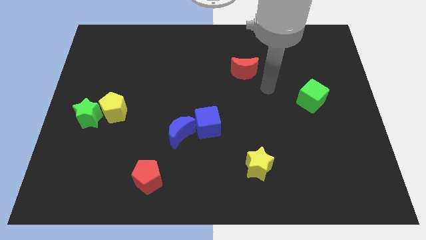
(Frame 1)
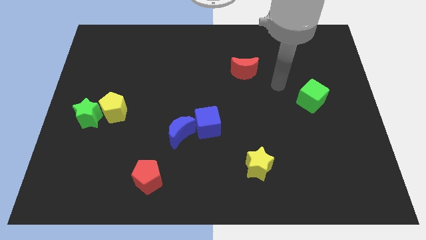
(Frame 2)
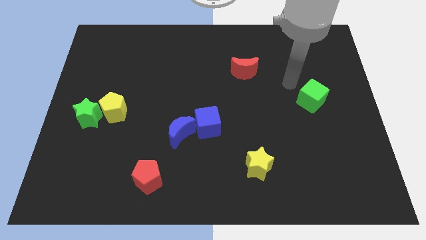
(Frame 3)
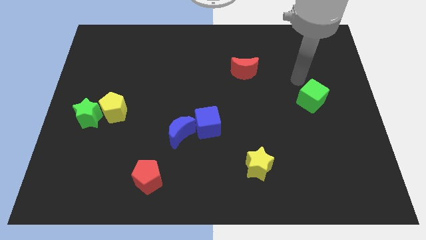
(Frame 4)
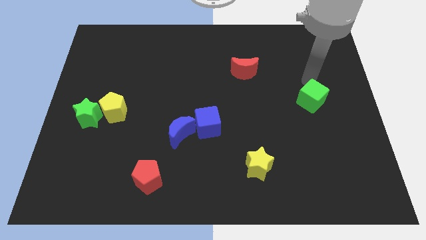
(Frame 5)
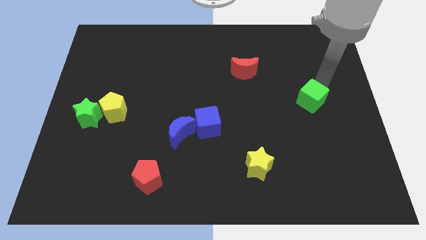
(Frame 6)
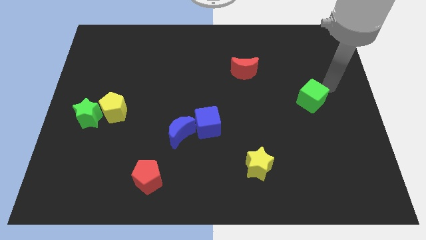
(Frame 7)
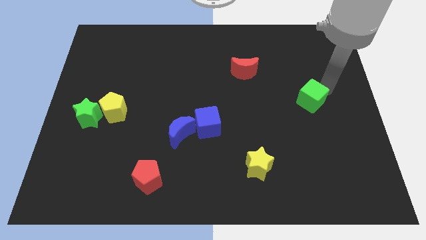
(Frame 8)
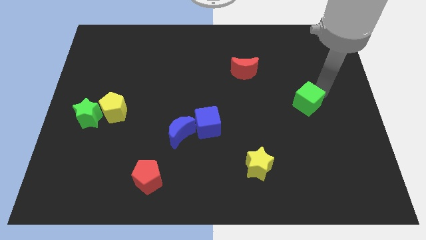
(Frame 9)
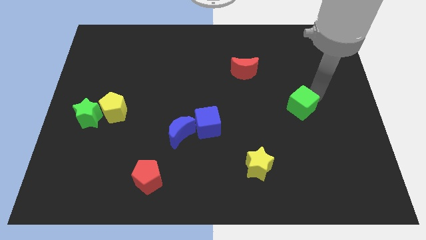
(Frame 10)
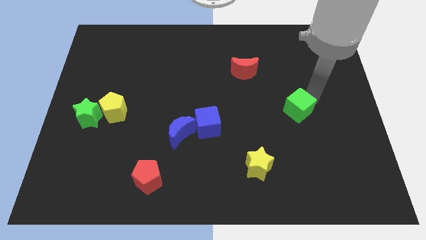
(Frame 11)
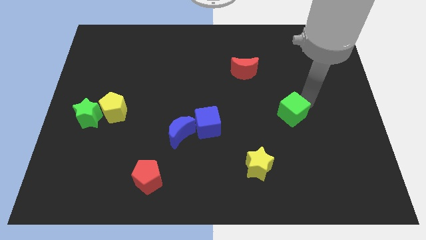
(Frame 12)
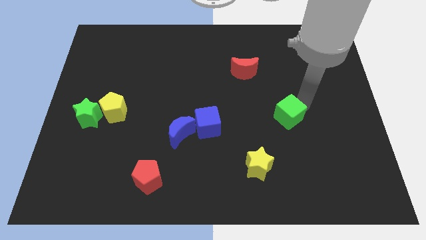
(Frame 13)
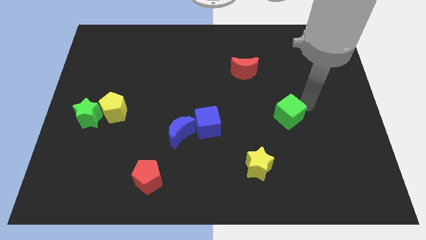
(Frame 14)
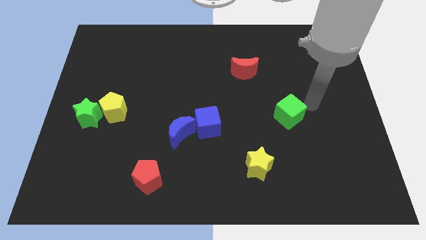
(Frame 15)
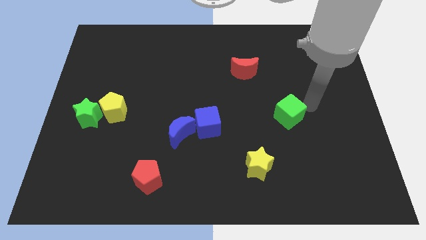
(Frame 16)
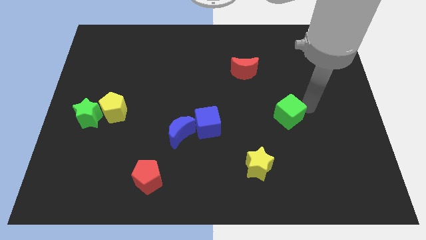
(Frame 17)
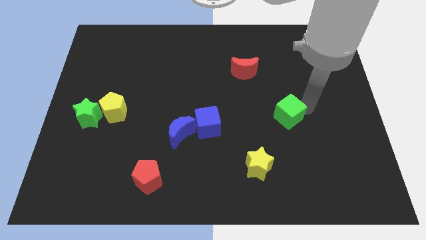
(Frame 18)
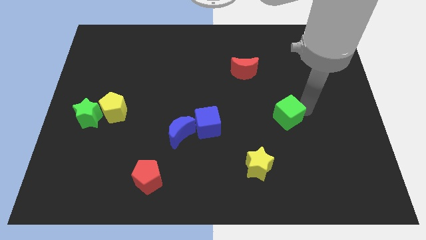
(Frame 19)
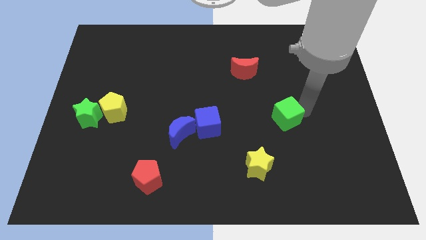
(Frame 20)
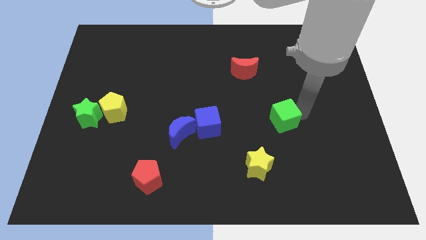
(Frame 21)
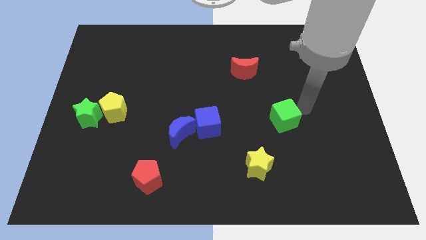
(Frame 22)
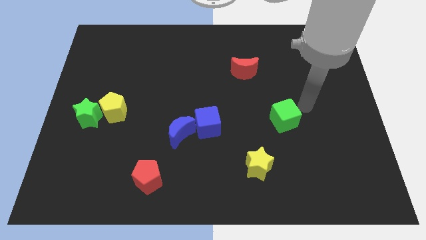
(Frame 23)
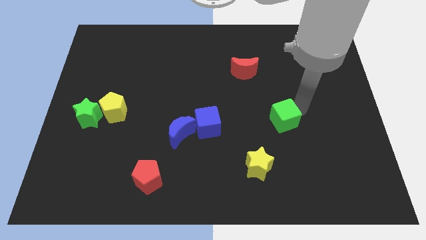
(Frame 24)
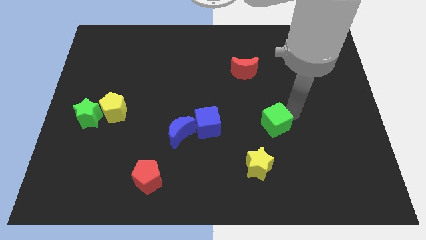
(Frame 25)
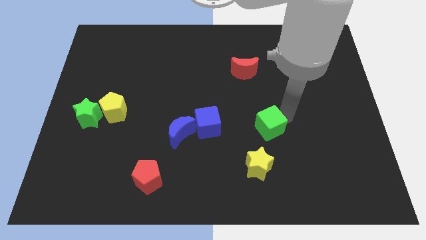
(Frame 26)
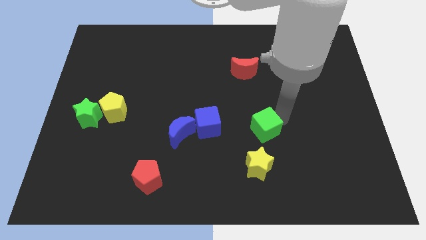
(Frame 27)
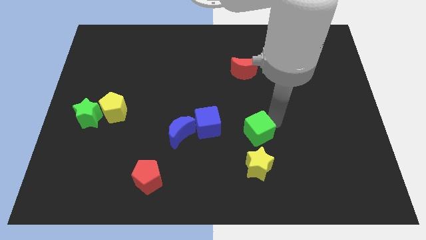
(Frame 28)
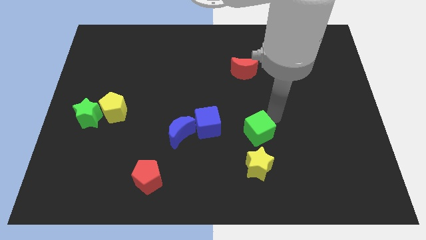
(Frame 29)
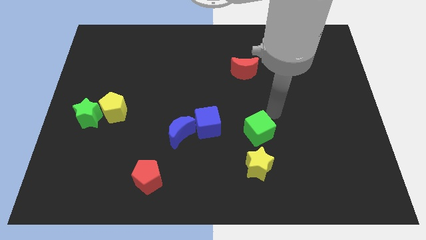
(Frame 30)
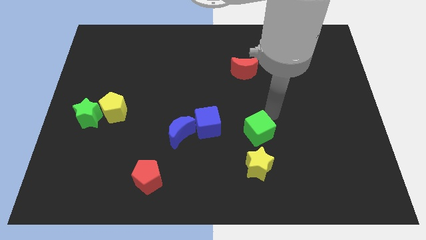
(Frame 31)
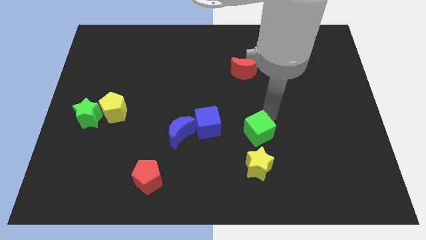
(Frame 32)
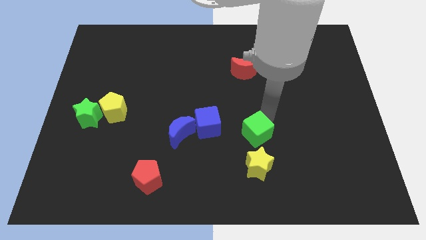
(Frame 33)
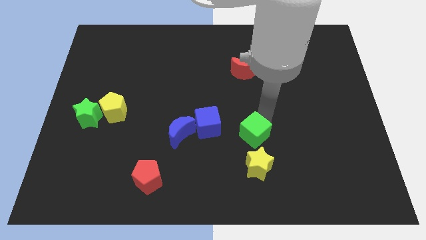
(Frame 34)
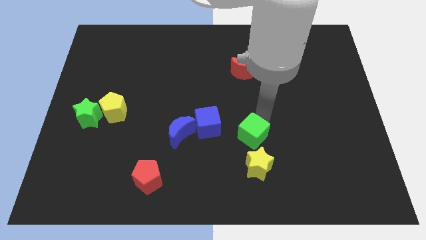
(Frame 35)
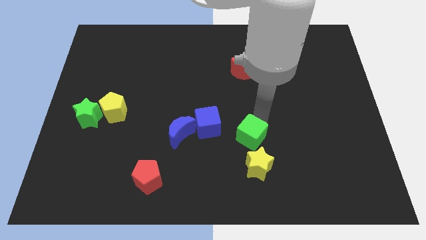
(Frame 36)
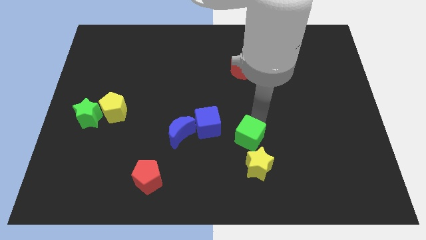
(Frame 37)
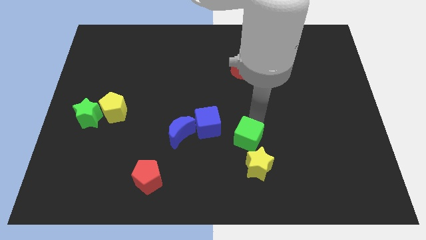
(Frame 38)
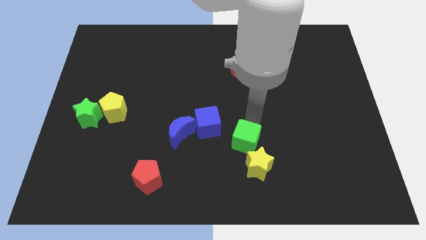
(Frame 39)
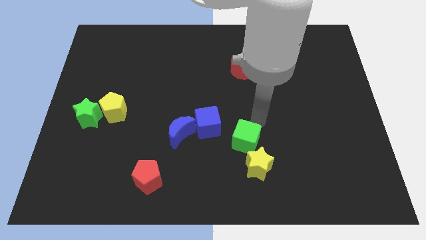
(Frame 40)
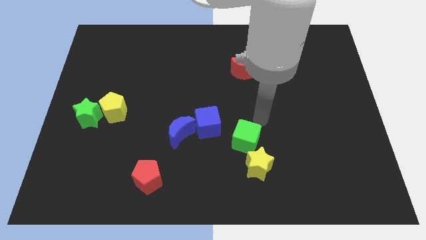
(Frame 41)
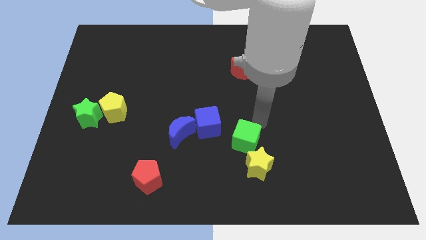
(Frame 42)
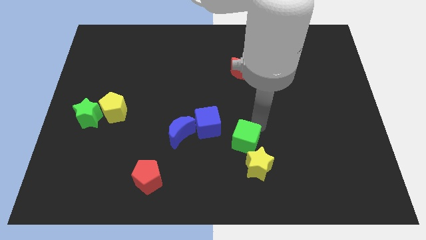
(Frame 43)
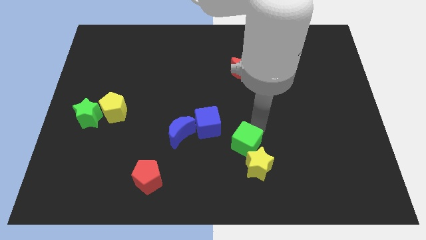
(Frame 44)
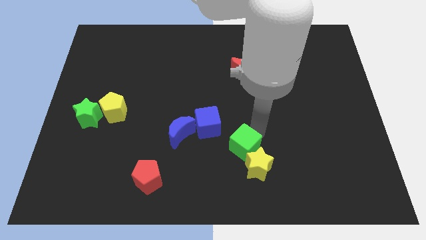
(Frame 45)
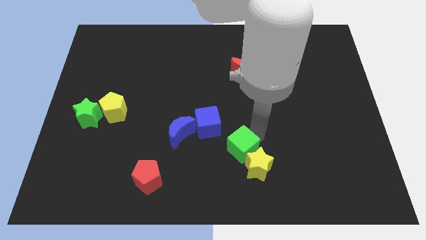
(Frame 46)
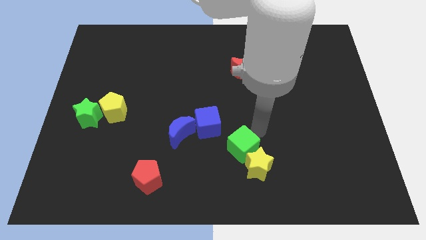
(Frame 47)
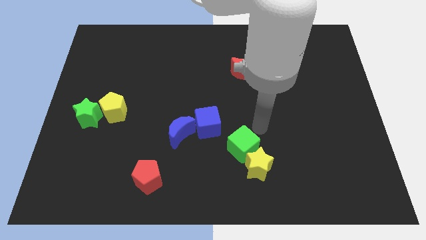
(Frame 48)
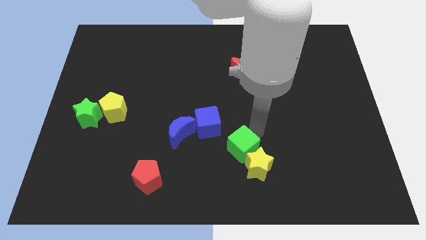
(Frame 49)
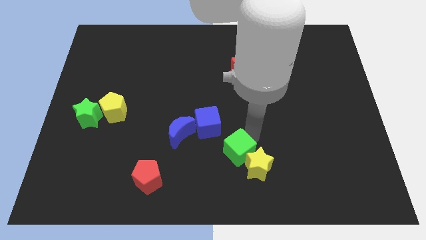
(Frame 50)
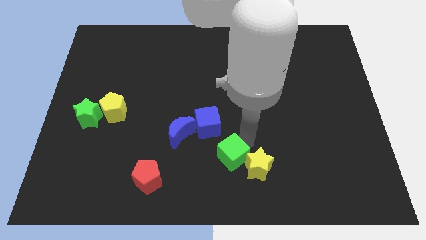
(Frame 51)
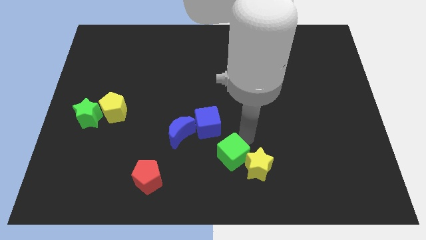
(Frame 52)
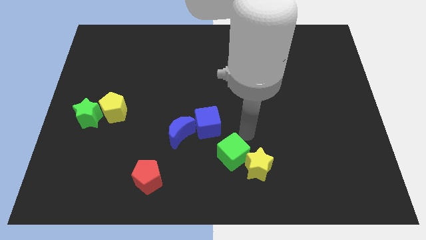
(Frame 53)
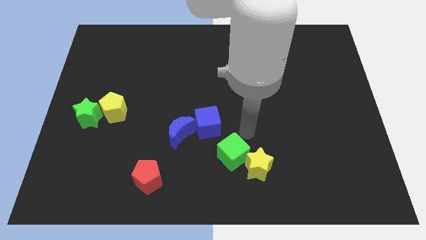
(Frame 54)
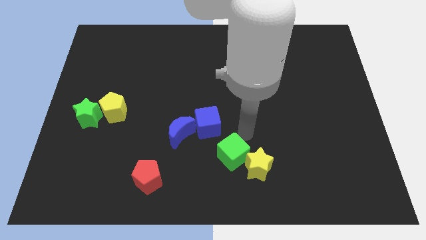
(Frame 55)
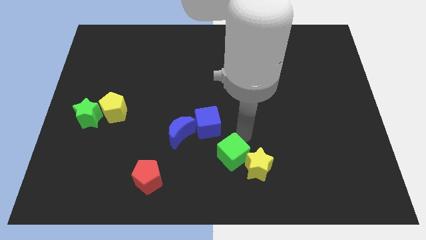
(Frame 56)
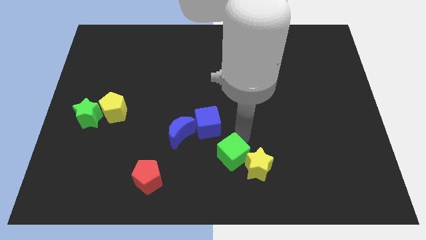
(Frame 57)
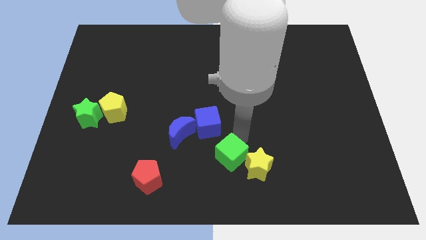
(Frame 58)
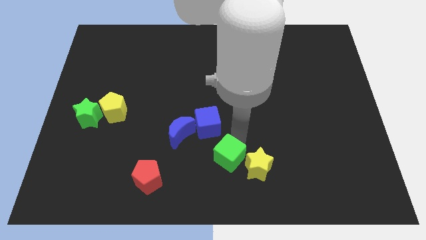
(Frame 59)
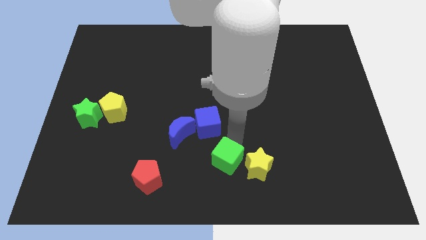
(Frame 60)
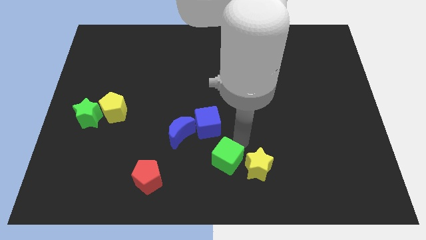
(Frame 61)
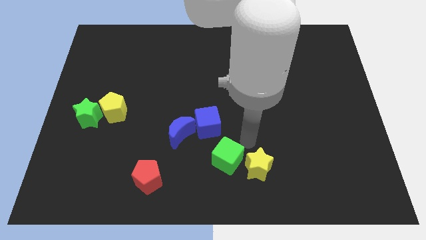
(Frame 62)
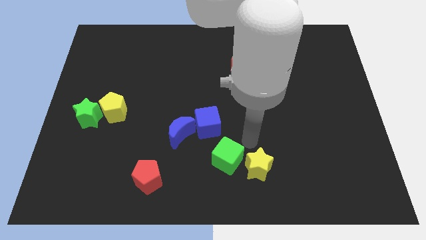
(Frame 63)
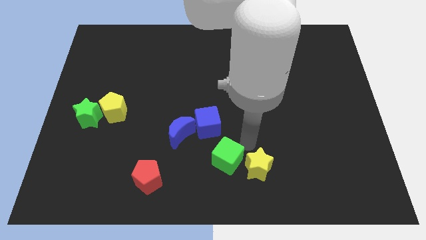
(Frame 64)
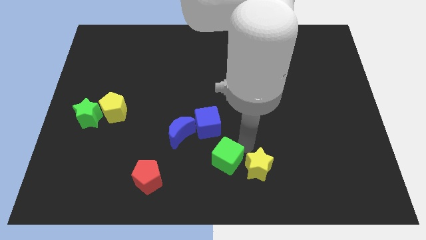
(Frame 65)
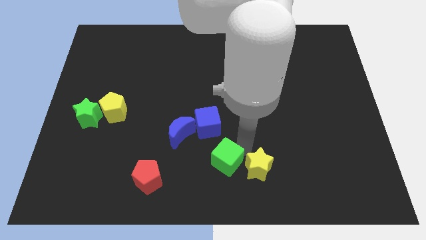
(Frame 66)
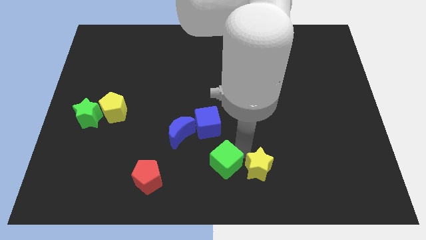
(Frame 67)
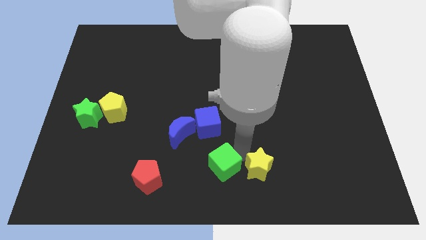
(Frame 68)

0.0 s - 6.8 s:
move the green cube to the right side of the red pentagon

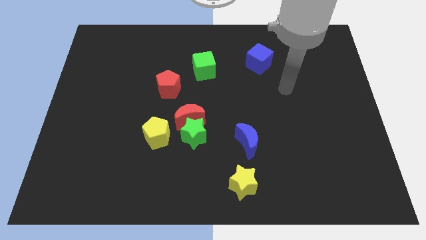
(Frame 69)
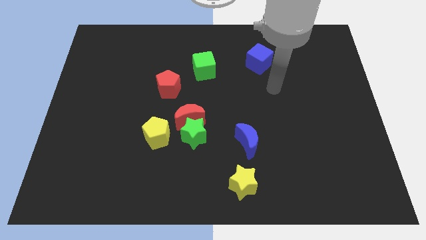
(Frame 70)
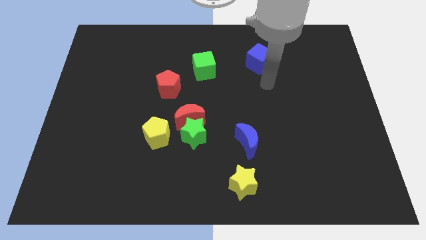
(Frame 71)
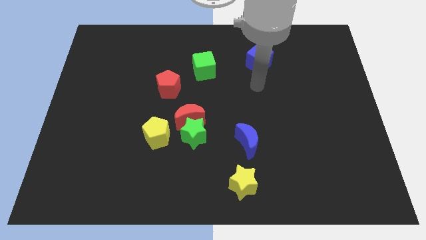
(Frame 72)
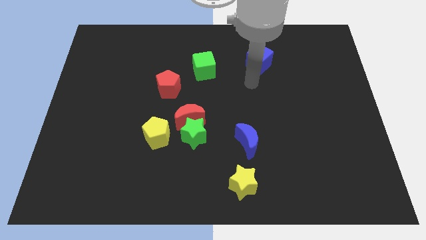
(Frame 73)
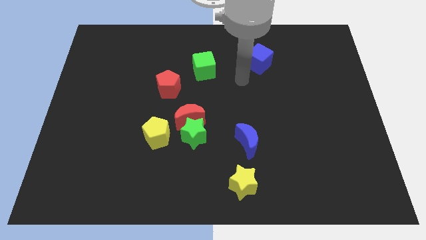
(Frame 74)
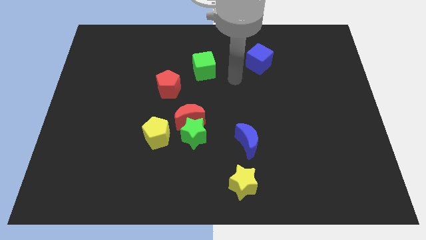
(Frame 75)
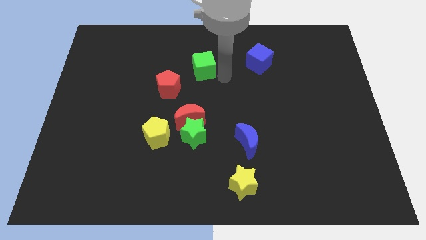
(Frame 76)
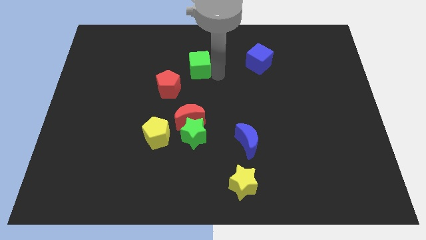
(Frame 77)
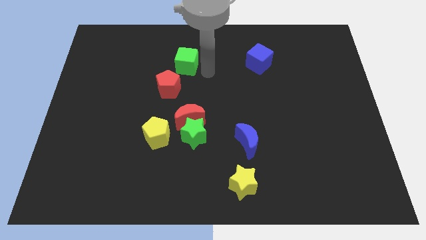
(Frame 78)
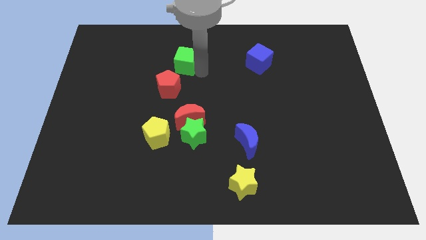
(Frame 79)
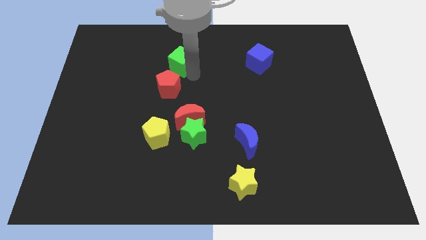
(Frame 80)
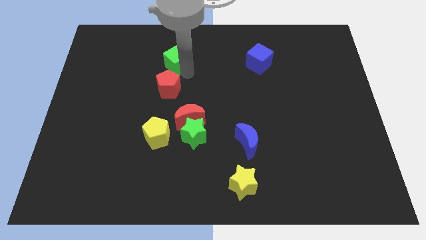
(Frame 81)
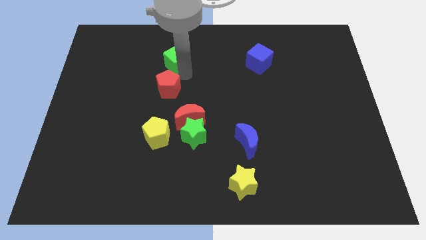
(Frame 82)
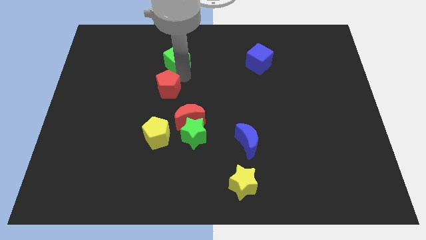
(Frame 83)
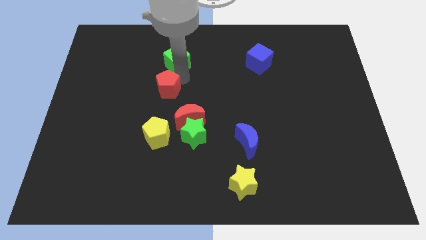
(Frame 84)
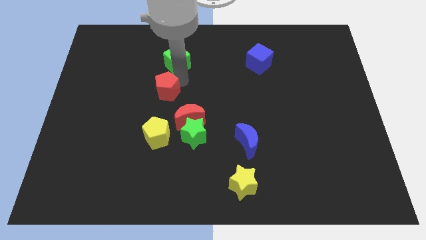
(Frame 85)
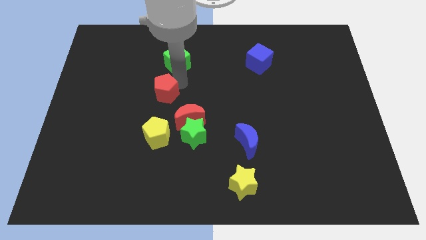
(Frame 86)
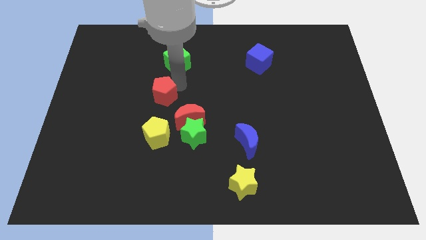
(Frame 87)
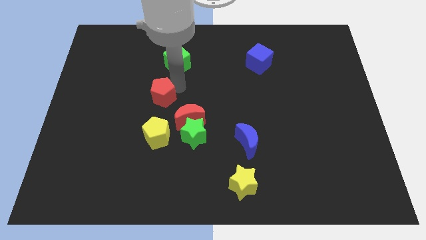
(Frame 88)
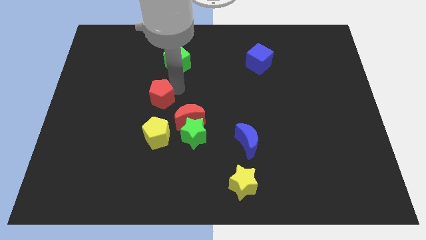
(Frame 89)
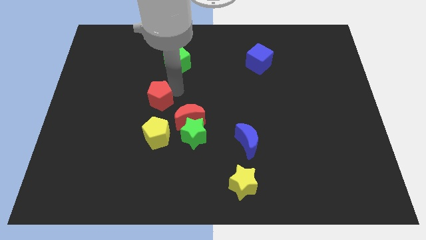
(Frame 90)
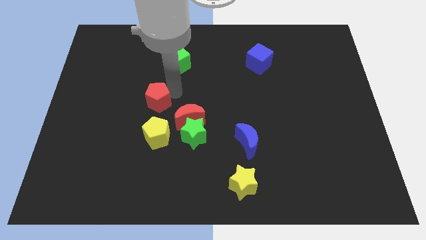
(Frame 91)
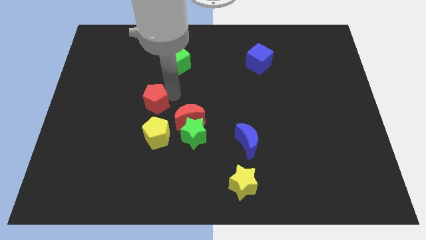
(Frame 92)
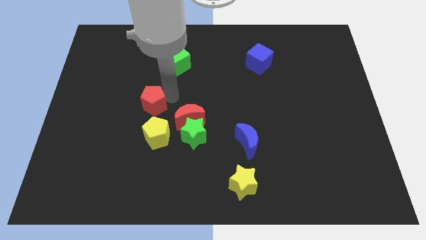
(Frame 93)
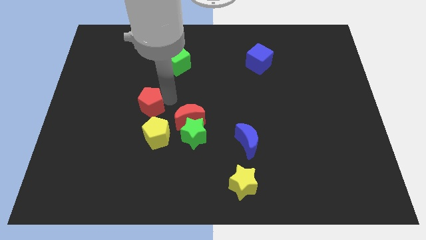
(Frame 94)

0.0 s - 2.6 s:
move the red pentagon diagonally up and to the left of the yellow pentagon
